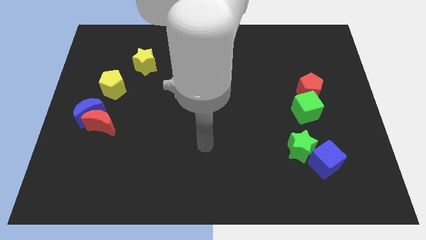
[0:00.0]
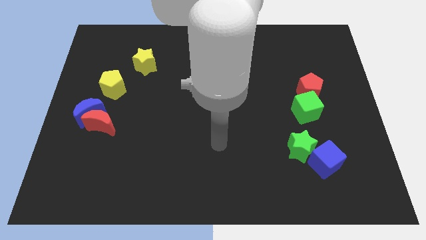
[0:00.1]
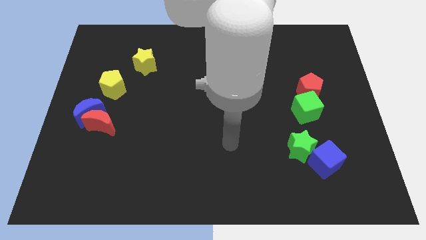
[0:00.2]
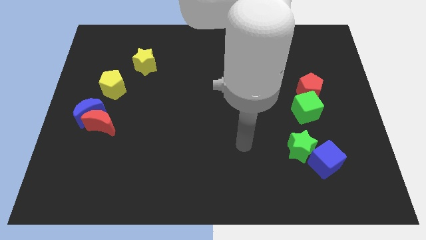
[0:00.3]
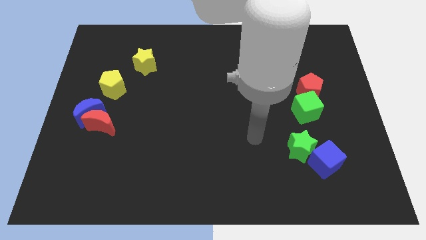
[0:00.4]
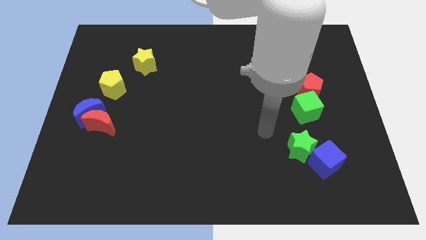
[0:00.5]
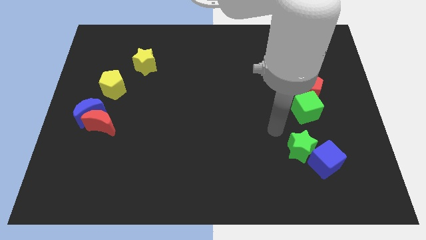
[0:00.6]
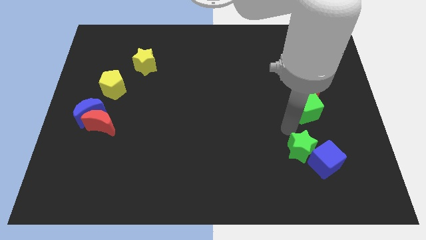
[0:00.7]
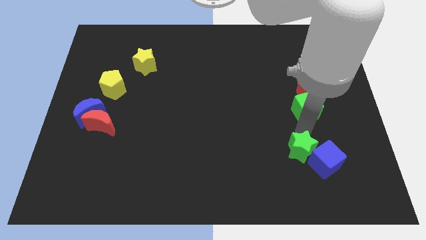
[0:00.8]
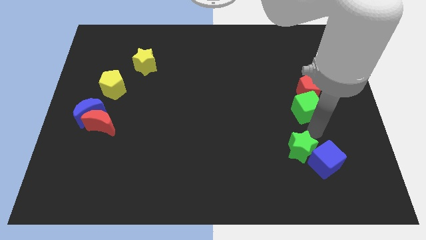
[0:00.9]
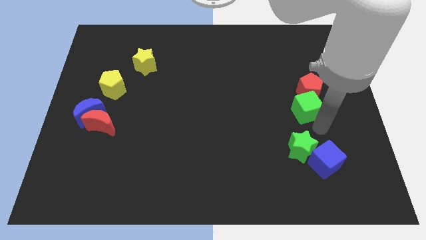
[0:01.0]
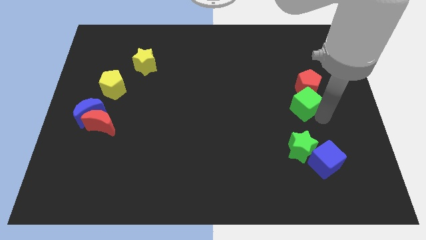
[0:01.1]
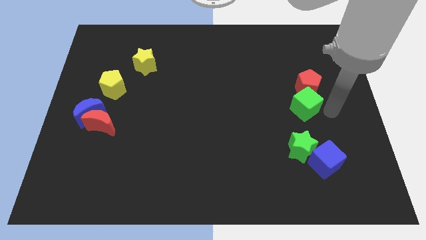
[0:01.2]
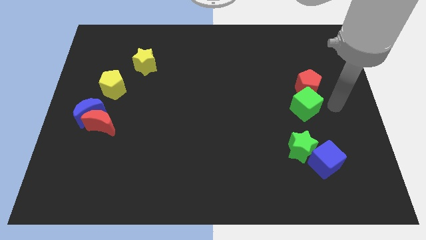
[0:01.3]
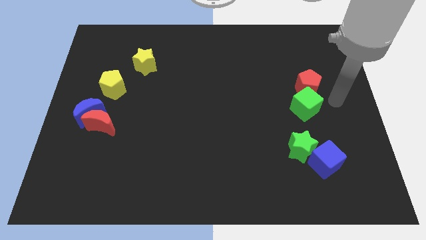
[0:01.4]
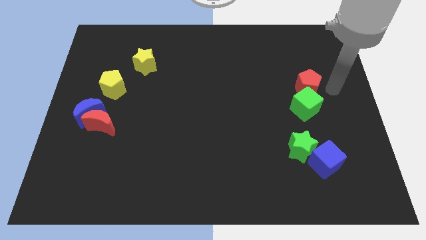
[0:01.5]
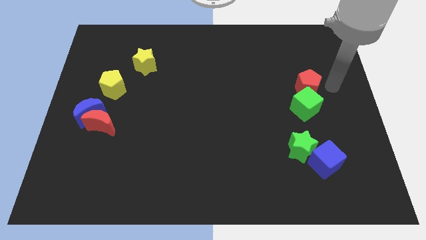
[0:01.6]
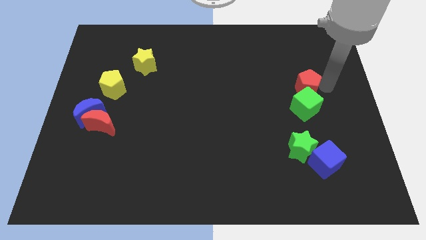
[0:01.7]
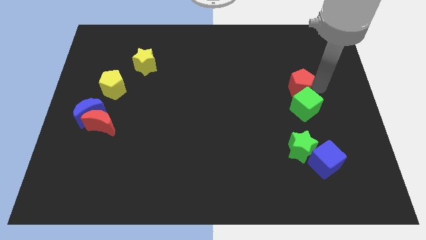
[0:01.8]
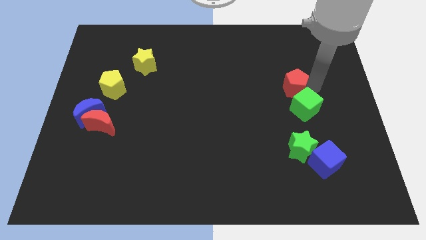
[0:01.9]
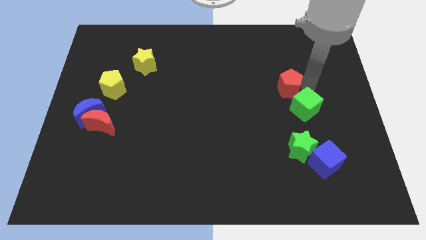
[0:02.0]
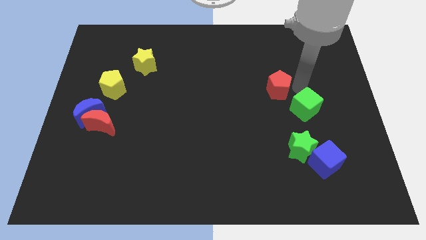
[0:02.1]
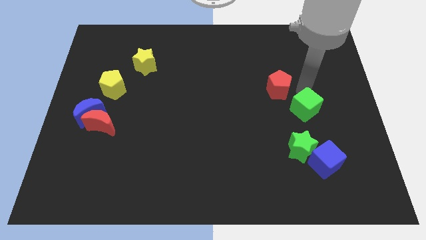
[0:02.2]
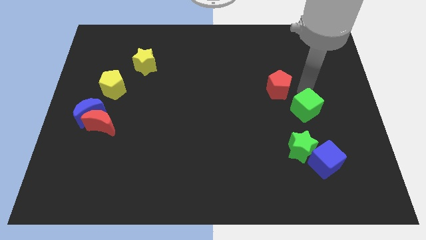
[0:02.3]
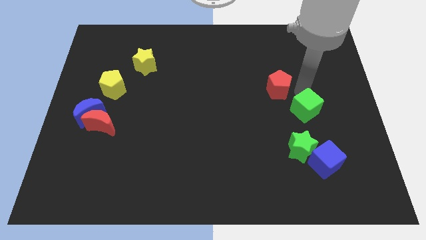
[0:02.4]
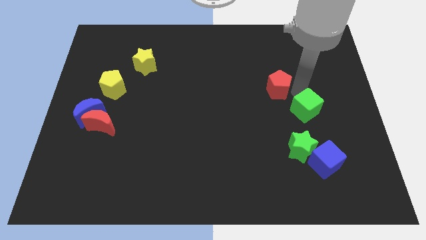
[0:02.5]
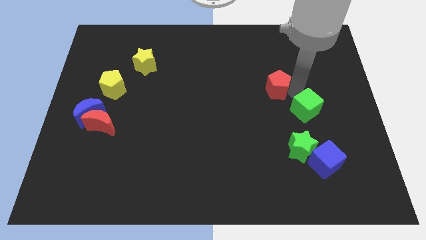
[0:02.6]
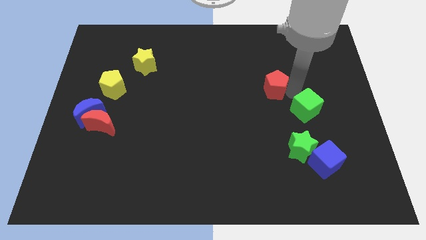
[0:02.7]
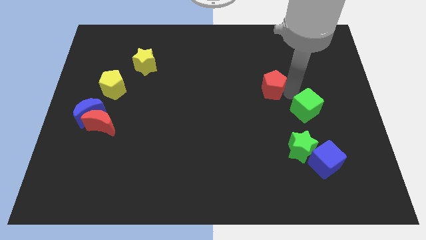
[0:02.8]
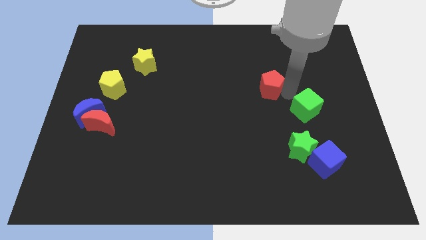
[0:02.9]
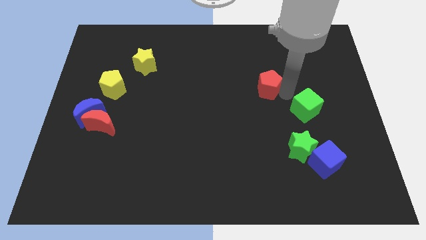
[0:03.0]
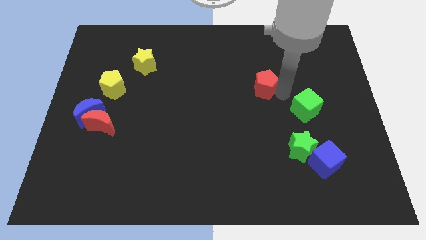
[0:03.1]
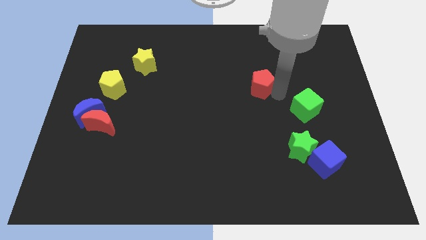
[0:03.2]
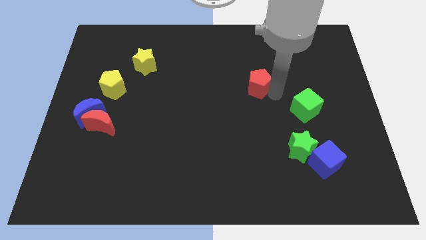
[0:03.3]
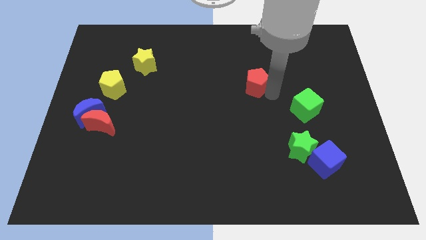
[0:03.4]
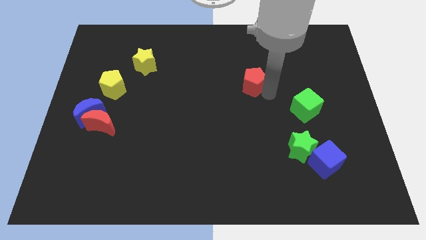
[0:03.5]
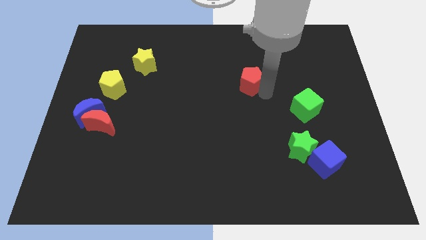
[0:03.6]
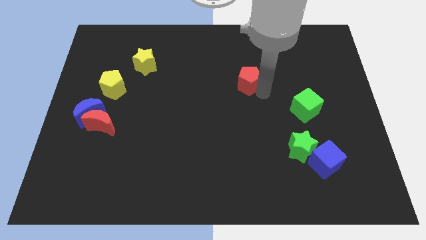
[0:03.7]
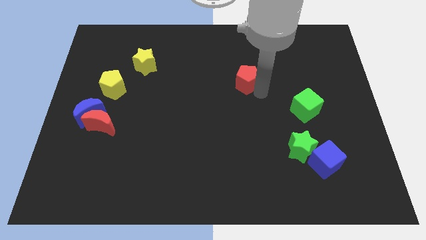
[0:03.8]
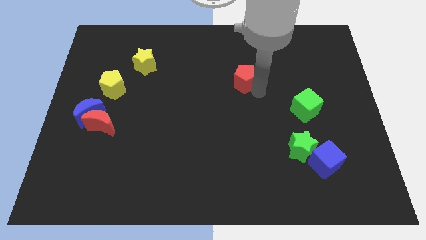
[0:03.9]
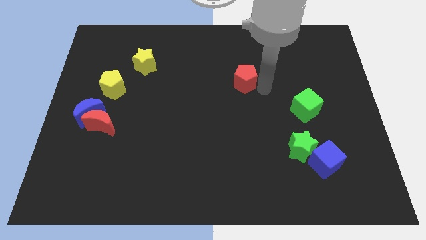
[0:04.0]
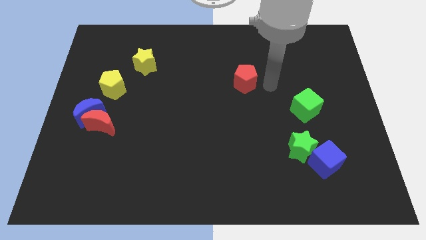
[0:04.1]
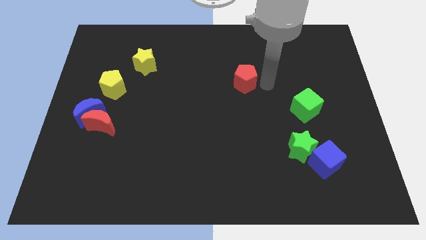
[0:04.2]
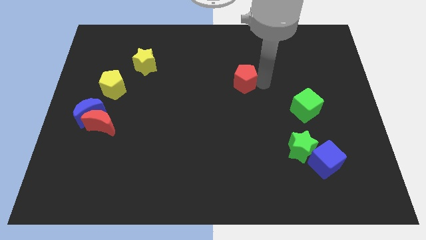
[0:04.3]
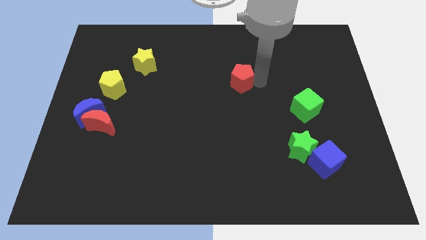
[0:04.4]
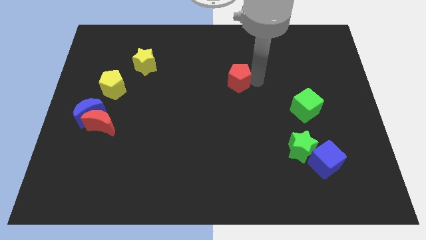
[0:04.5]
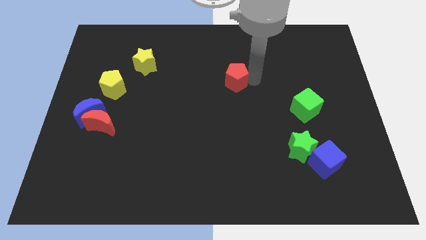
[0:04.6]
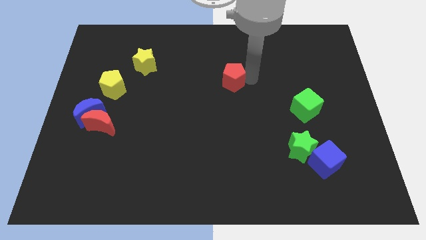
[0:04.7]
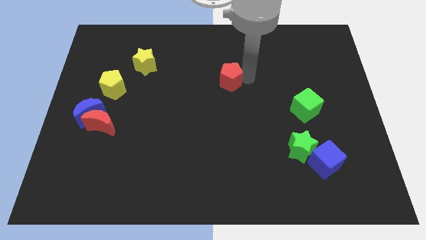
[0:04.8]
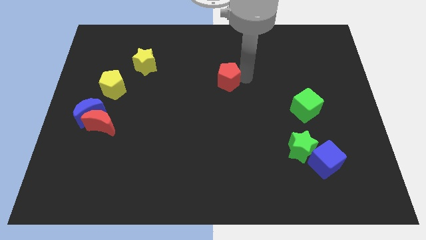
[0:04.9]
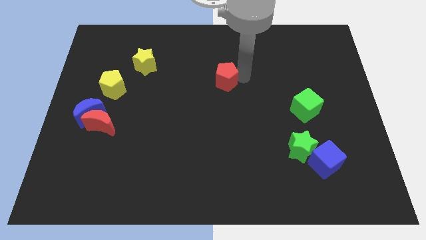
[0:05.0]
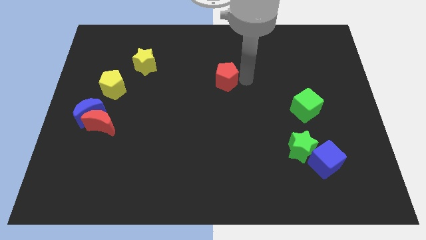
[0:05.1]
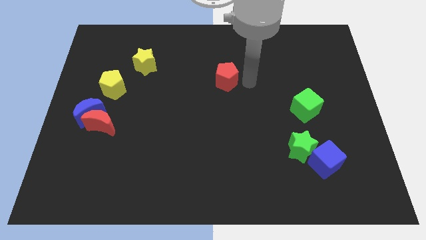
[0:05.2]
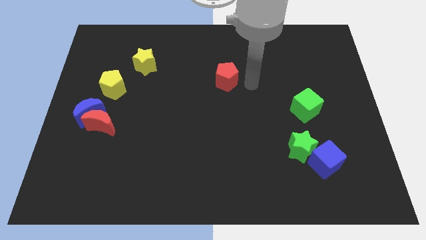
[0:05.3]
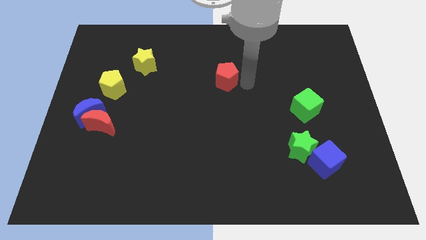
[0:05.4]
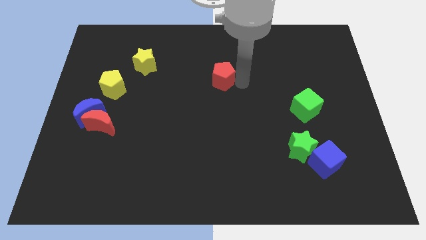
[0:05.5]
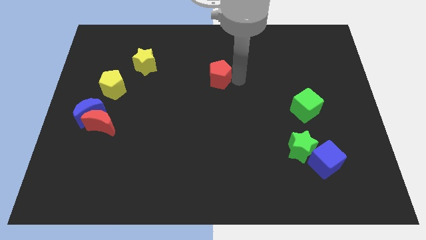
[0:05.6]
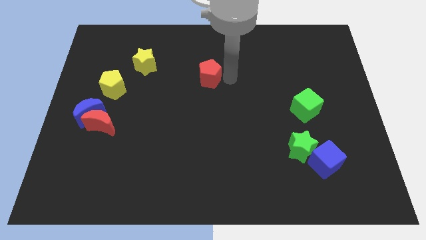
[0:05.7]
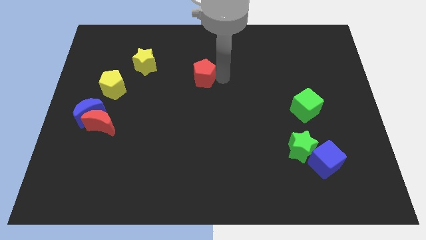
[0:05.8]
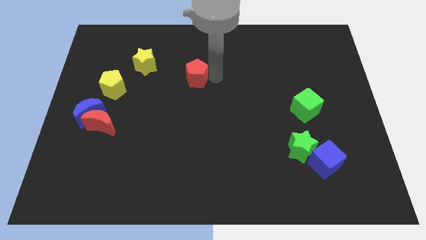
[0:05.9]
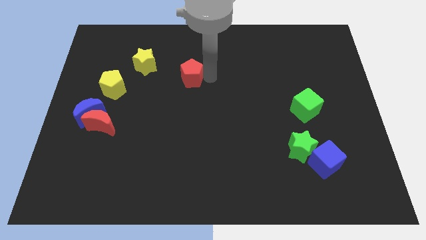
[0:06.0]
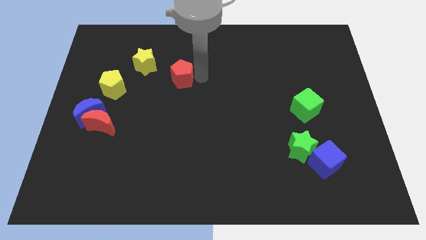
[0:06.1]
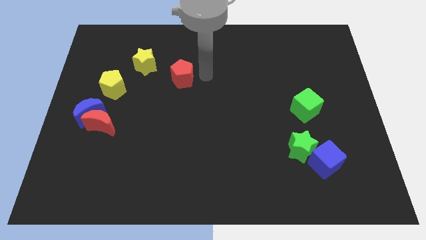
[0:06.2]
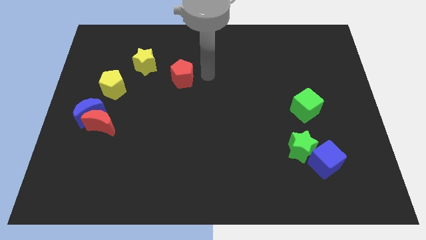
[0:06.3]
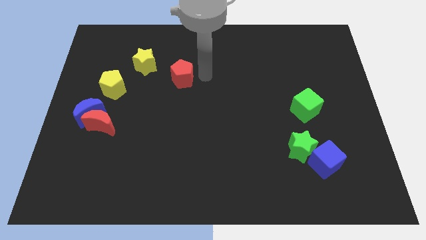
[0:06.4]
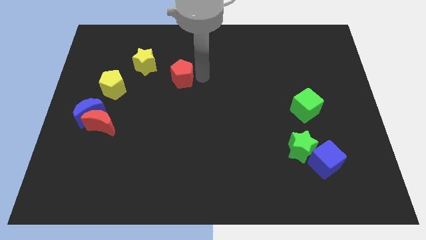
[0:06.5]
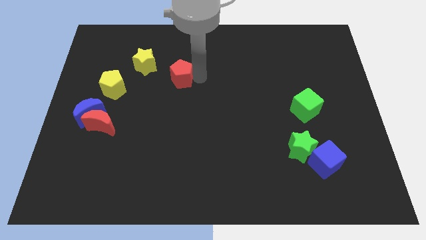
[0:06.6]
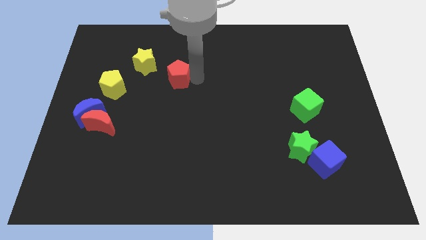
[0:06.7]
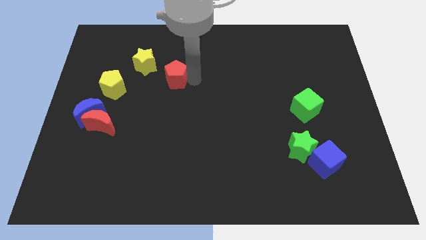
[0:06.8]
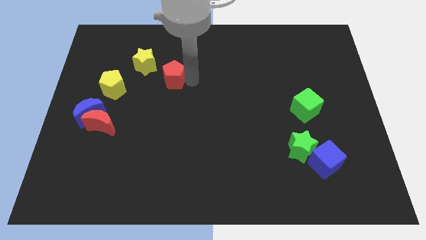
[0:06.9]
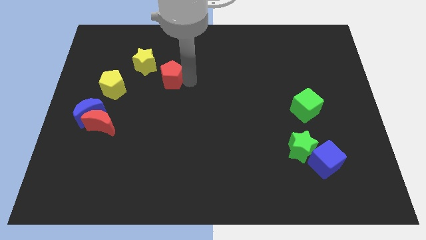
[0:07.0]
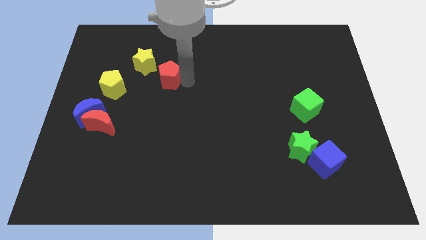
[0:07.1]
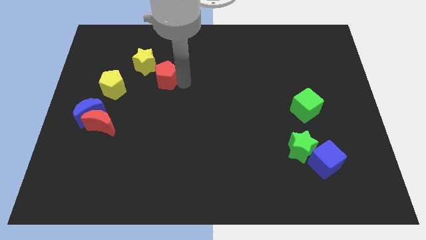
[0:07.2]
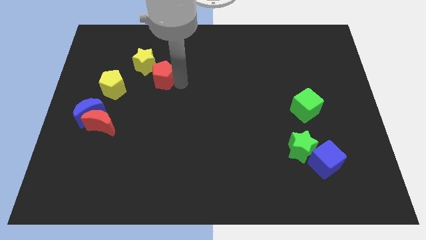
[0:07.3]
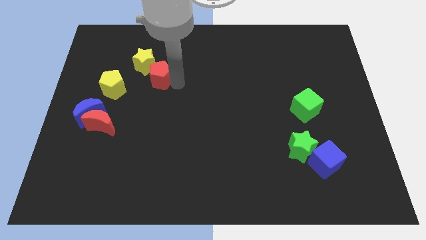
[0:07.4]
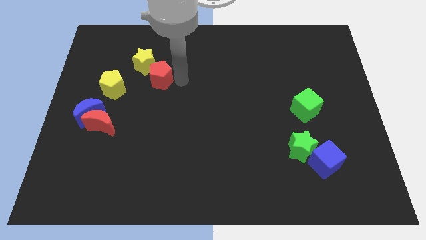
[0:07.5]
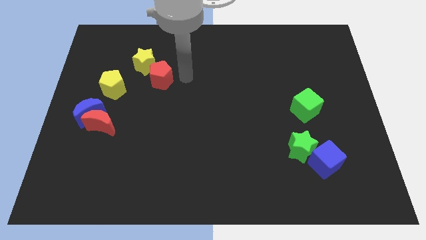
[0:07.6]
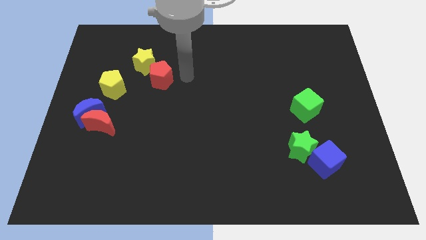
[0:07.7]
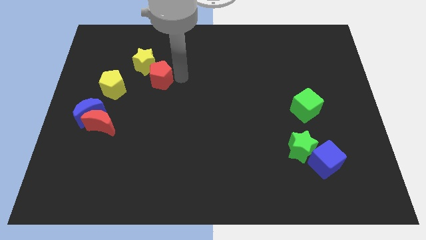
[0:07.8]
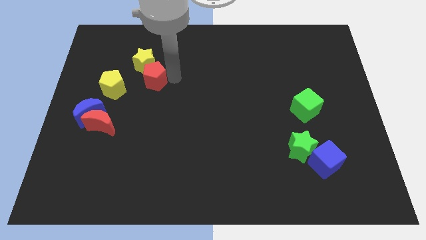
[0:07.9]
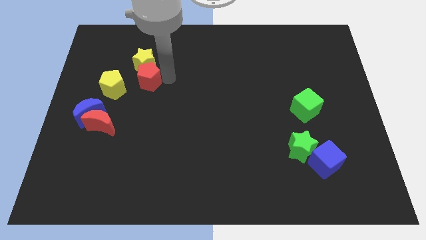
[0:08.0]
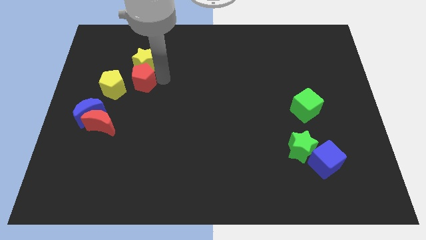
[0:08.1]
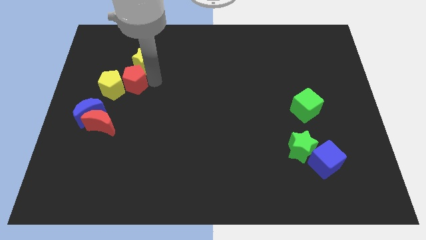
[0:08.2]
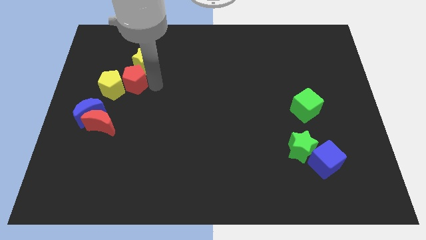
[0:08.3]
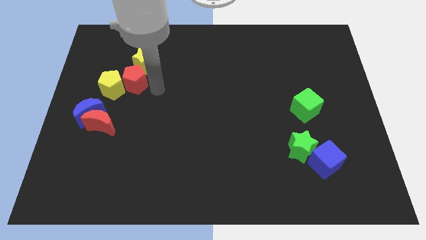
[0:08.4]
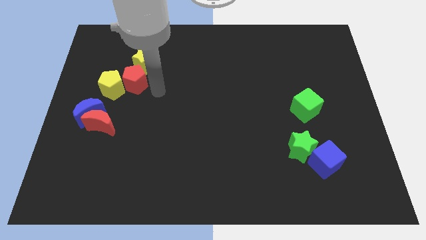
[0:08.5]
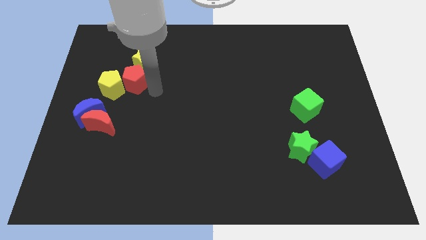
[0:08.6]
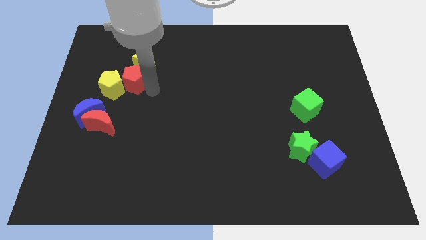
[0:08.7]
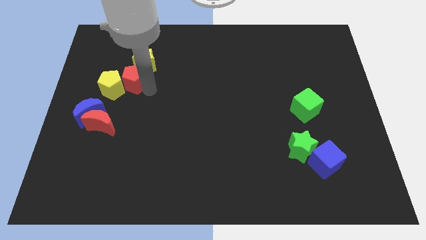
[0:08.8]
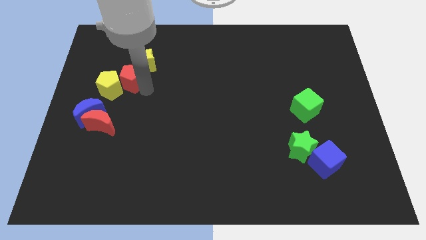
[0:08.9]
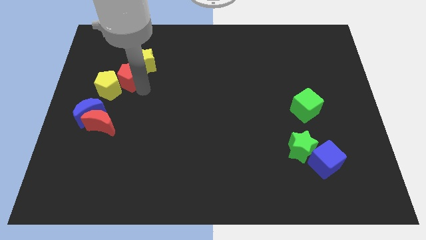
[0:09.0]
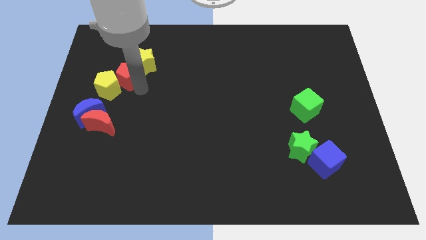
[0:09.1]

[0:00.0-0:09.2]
slide the red pentagon to the top side of the red moon
